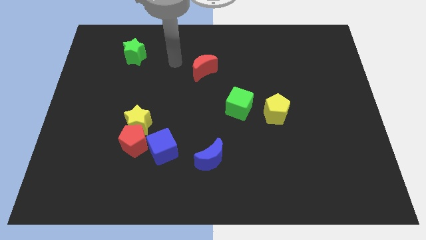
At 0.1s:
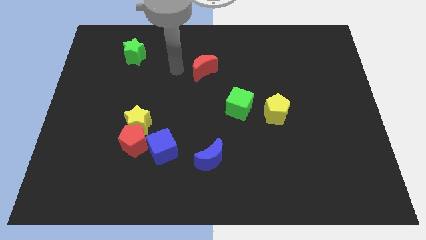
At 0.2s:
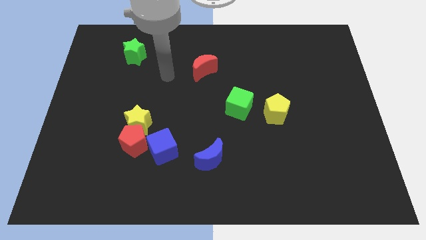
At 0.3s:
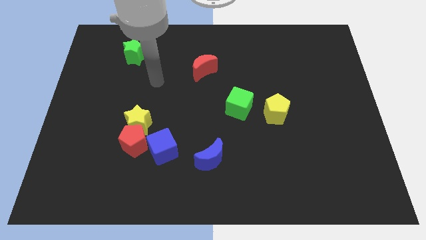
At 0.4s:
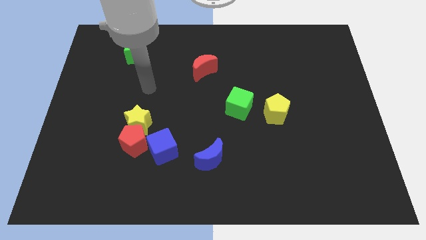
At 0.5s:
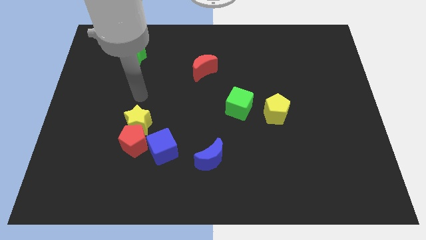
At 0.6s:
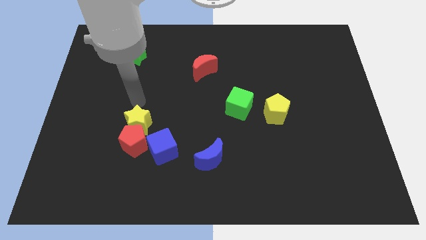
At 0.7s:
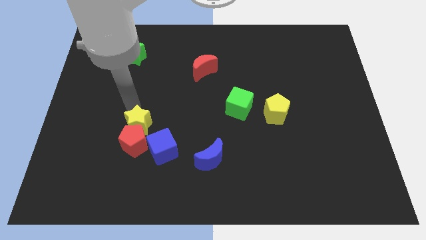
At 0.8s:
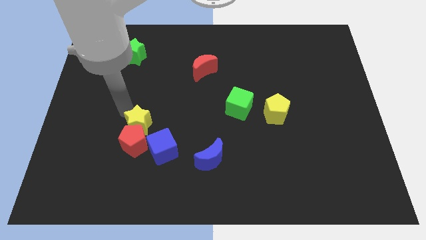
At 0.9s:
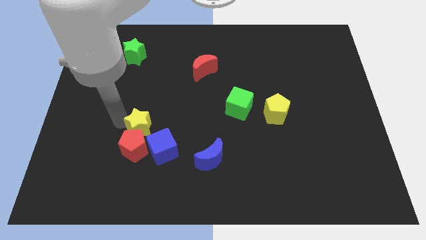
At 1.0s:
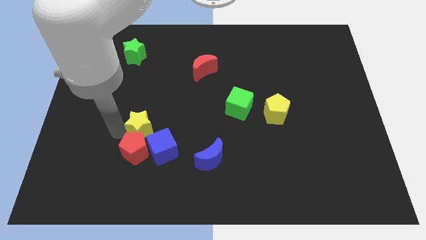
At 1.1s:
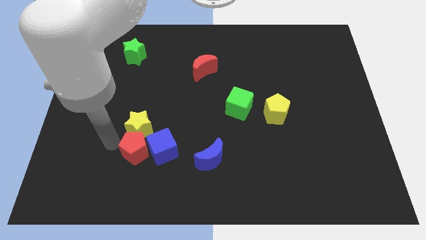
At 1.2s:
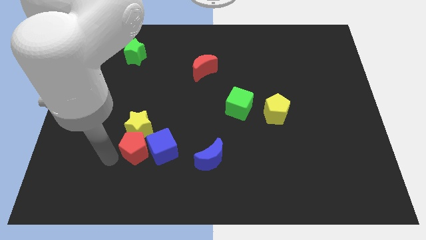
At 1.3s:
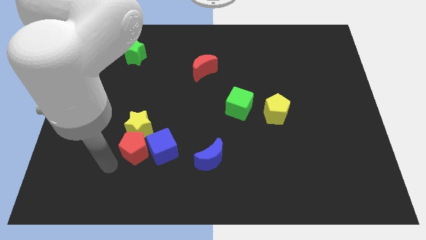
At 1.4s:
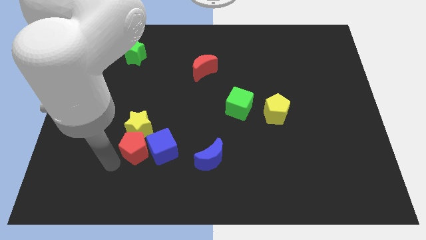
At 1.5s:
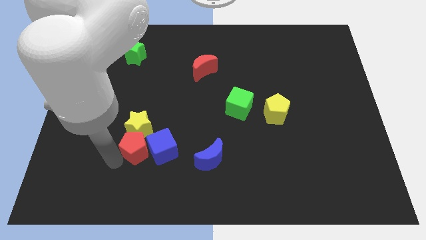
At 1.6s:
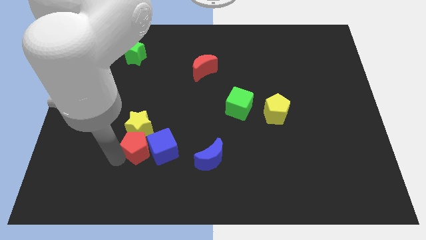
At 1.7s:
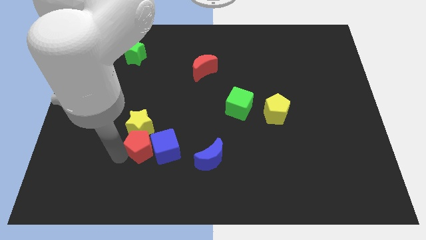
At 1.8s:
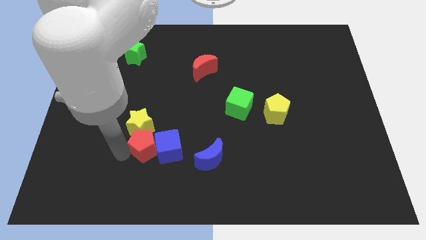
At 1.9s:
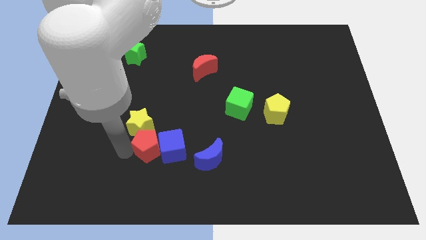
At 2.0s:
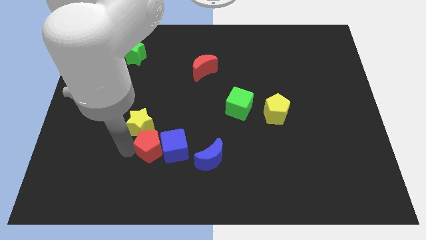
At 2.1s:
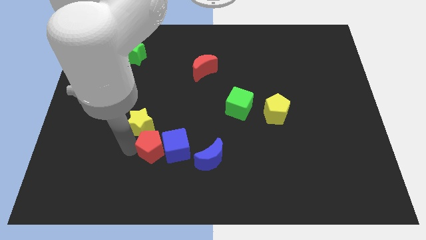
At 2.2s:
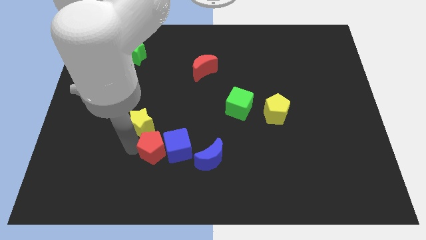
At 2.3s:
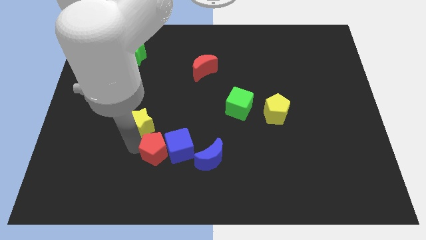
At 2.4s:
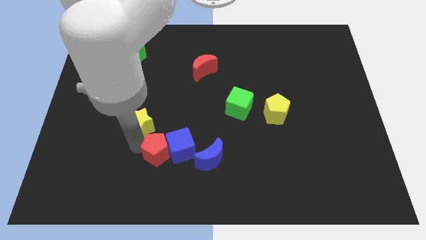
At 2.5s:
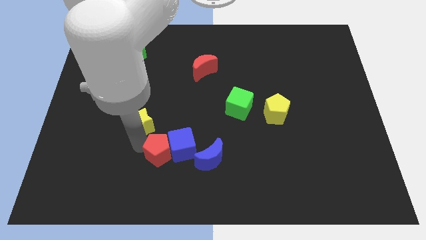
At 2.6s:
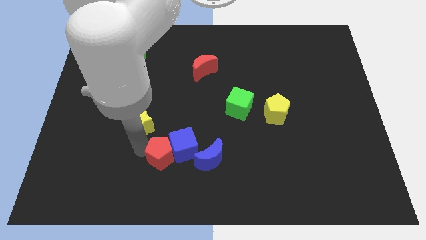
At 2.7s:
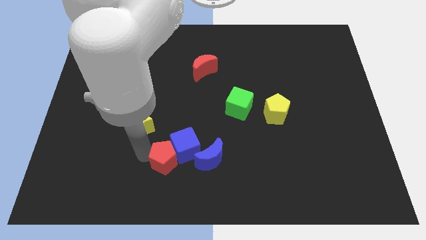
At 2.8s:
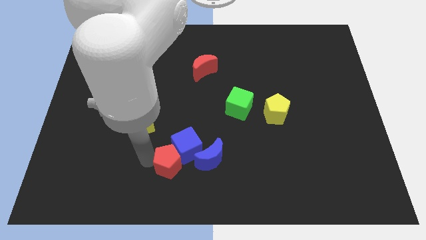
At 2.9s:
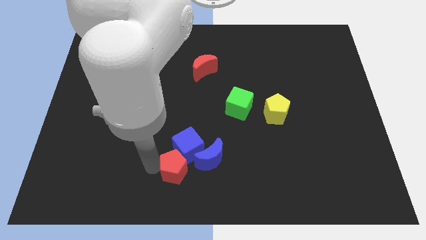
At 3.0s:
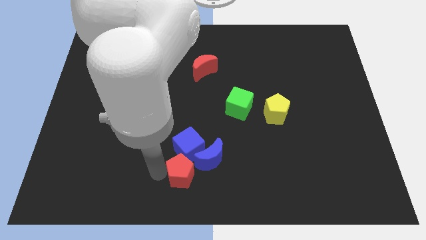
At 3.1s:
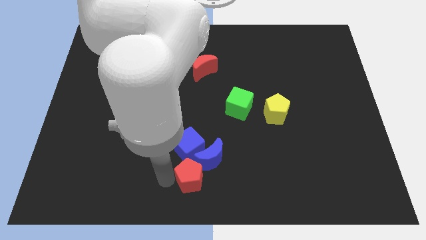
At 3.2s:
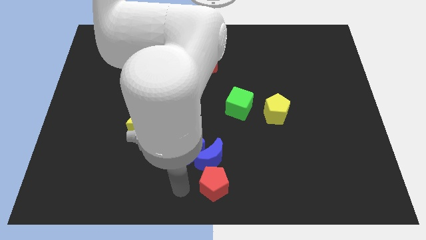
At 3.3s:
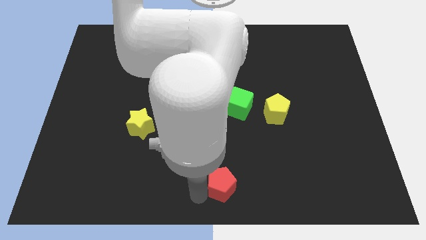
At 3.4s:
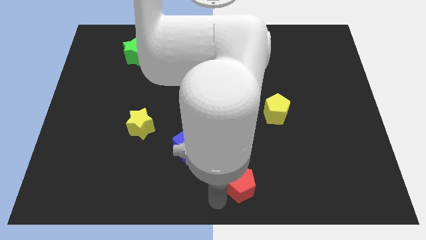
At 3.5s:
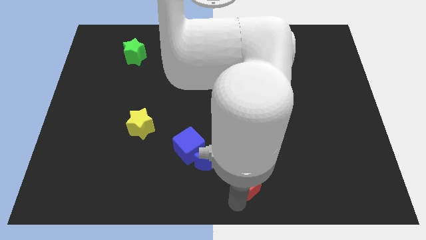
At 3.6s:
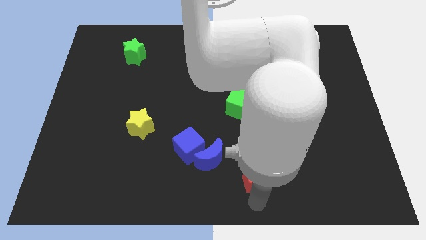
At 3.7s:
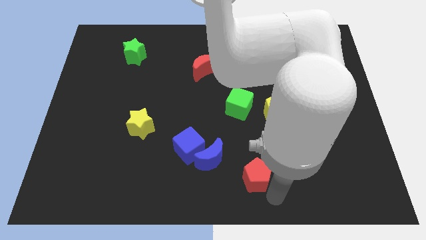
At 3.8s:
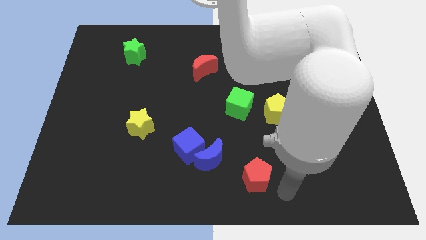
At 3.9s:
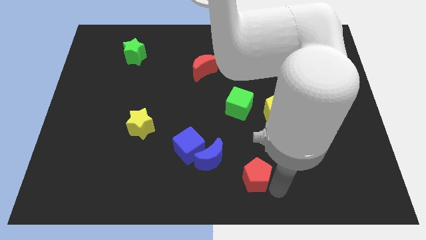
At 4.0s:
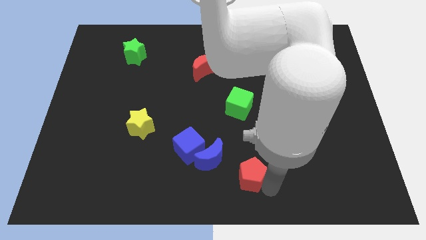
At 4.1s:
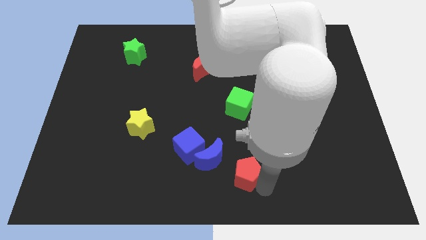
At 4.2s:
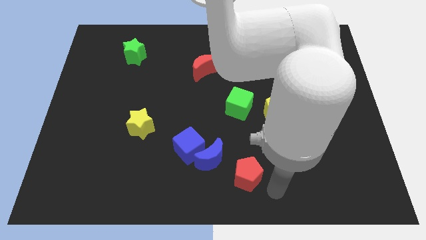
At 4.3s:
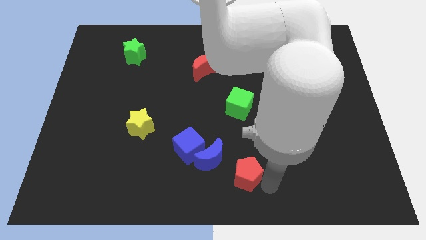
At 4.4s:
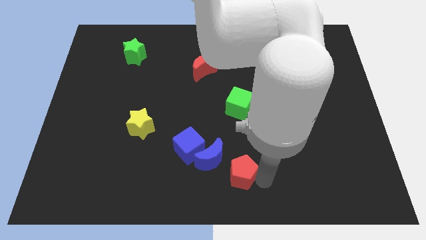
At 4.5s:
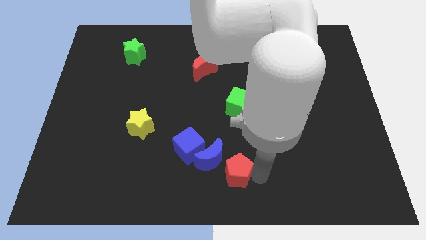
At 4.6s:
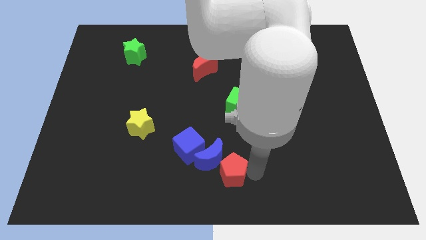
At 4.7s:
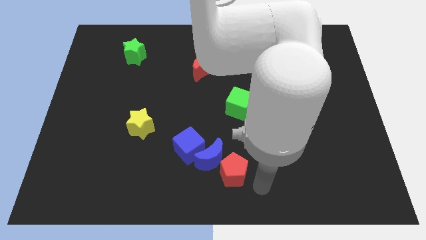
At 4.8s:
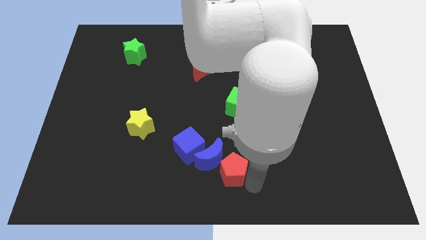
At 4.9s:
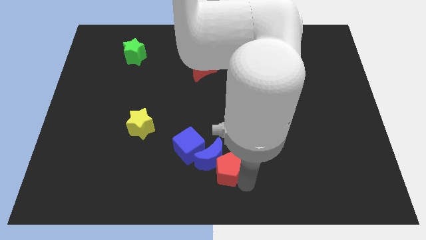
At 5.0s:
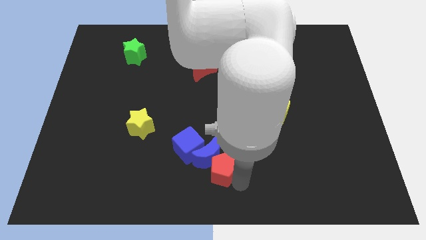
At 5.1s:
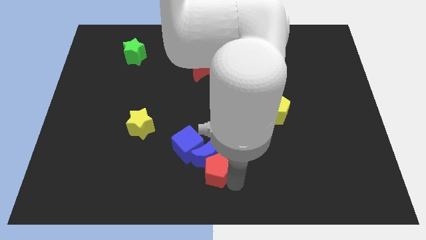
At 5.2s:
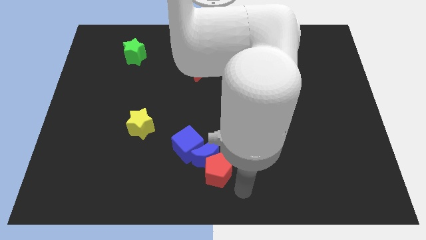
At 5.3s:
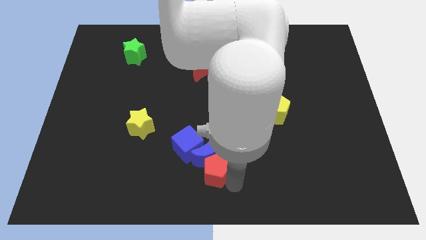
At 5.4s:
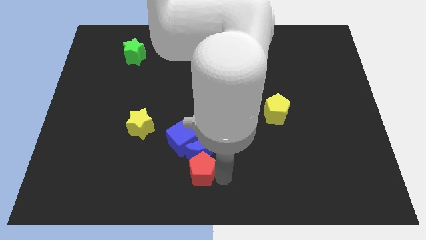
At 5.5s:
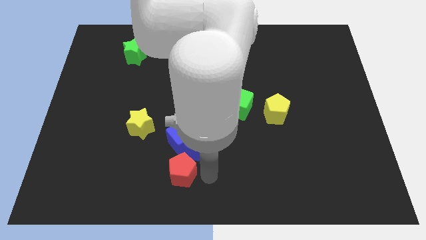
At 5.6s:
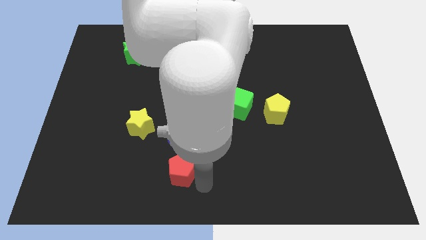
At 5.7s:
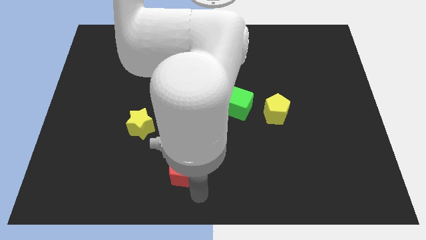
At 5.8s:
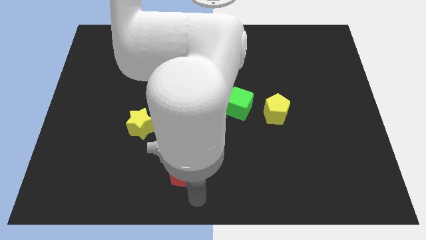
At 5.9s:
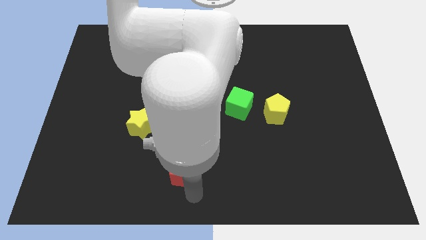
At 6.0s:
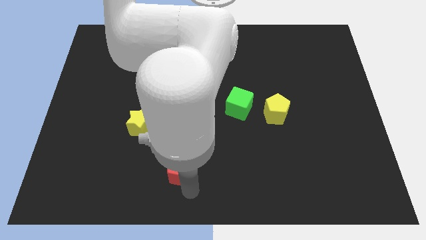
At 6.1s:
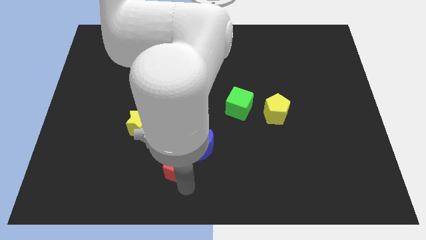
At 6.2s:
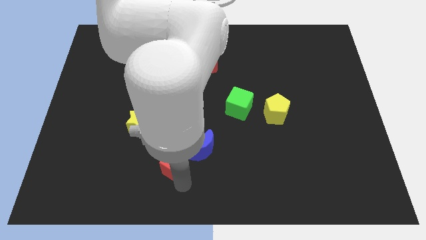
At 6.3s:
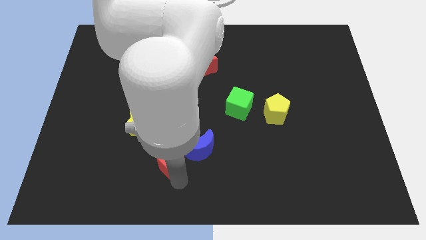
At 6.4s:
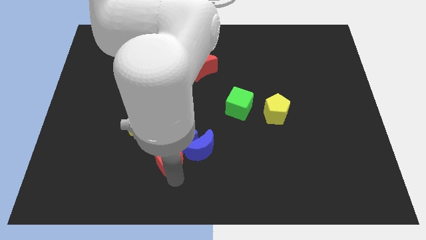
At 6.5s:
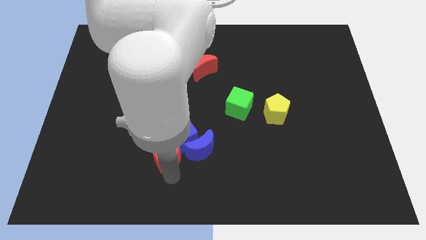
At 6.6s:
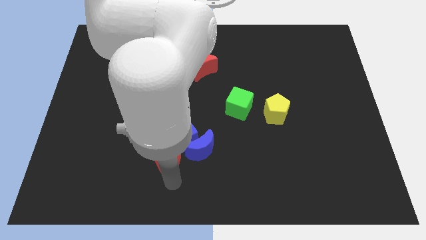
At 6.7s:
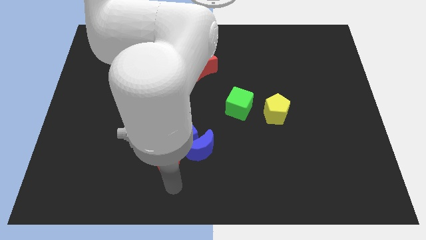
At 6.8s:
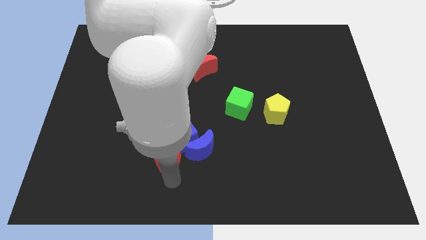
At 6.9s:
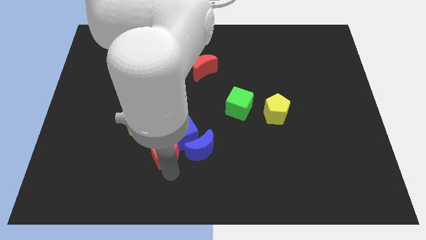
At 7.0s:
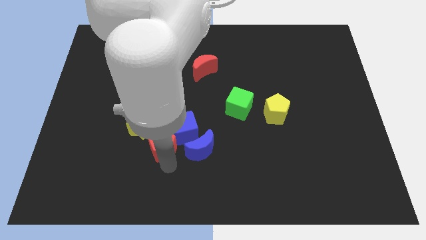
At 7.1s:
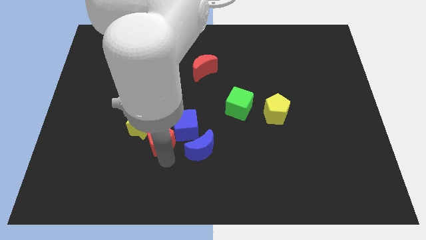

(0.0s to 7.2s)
push the red pentagon to the right side of the yellow star

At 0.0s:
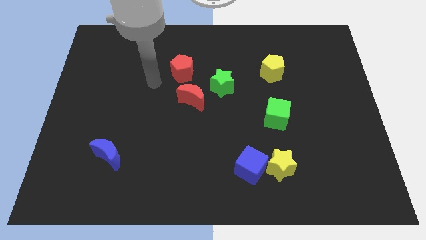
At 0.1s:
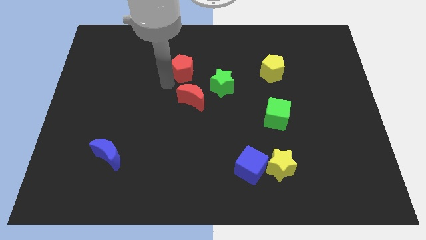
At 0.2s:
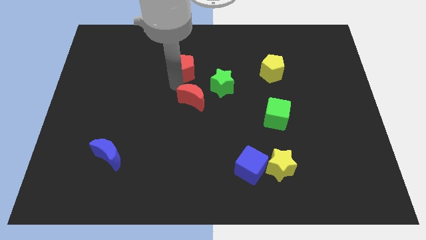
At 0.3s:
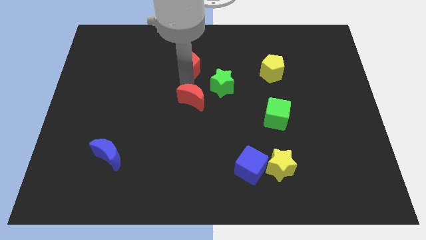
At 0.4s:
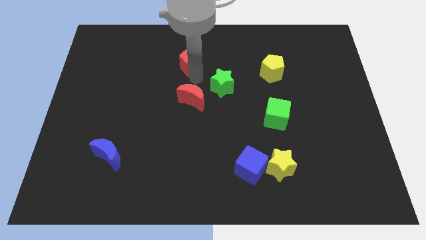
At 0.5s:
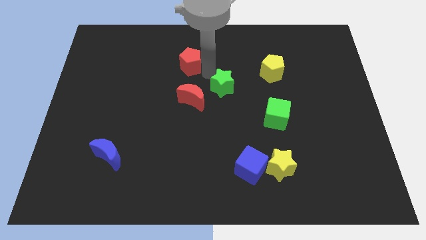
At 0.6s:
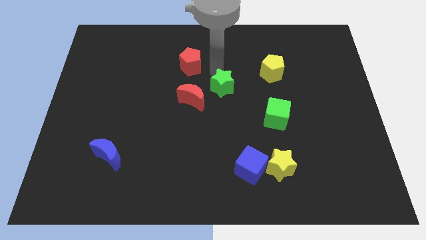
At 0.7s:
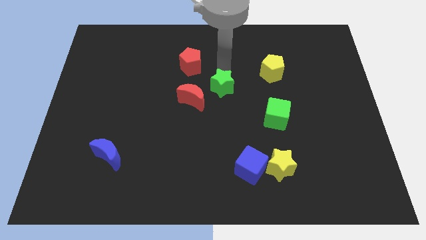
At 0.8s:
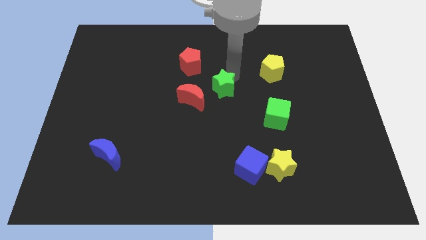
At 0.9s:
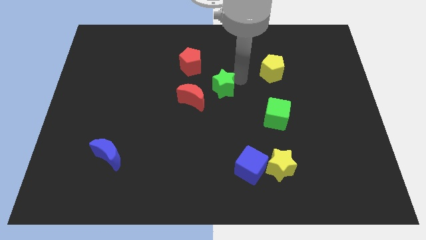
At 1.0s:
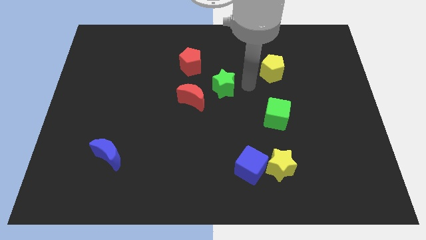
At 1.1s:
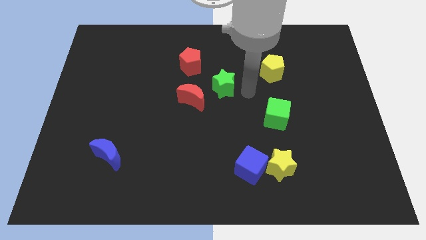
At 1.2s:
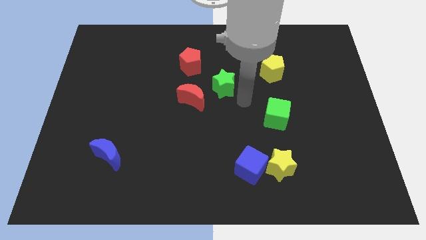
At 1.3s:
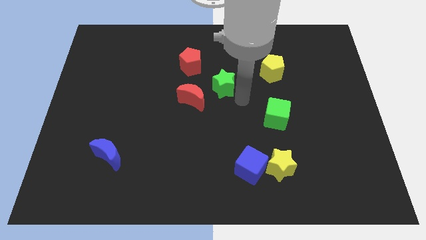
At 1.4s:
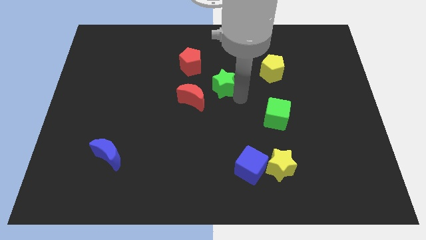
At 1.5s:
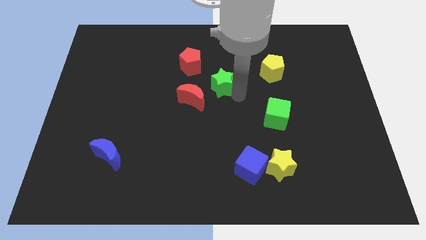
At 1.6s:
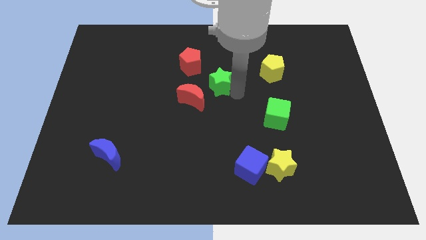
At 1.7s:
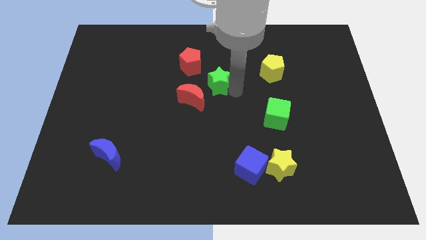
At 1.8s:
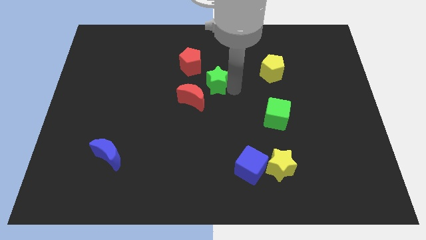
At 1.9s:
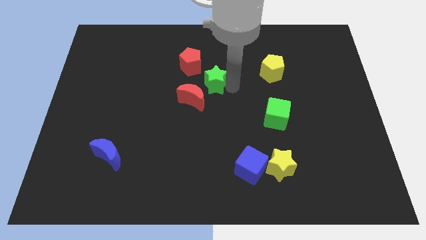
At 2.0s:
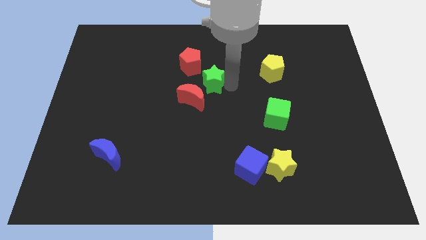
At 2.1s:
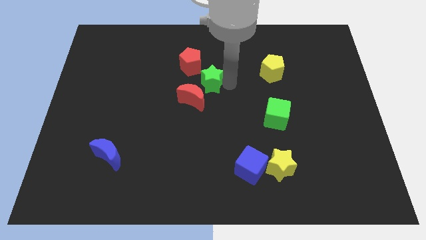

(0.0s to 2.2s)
slide the green star to the top side of the red moon
